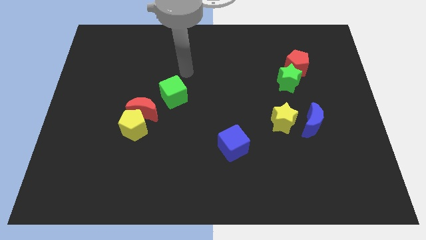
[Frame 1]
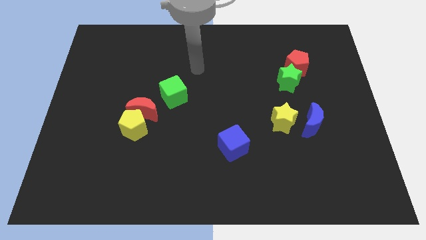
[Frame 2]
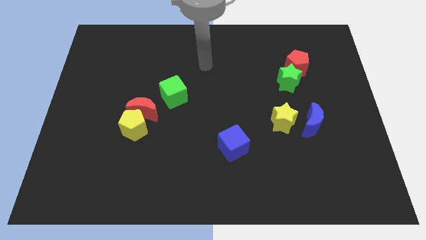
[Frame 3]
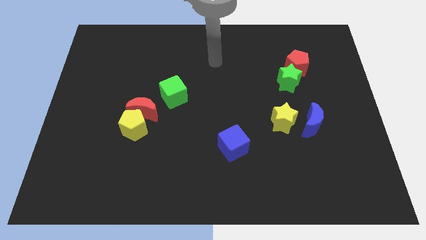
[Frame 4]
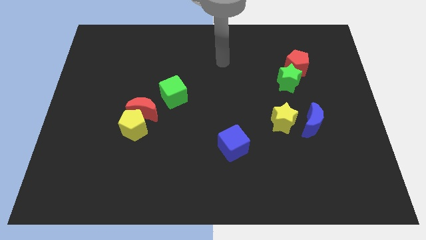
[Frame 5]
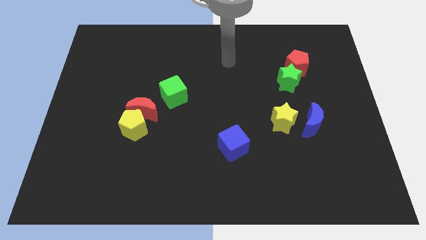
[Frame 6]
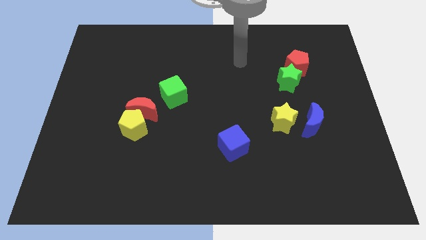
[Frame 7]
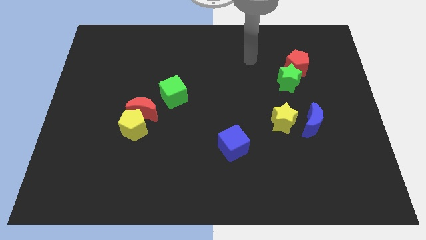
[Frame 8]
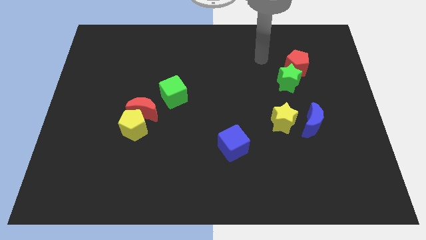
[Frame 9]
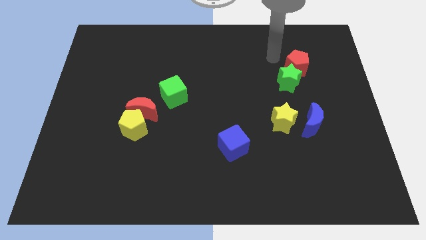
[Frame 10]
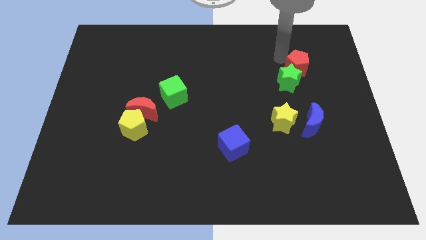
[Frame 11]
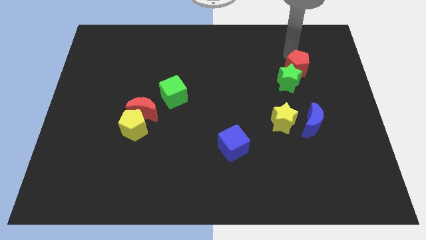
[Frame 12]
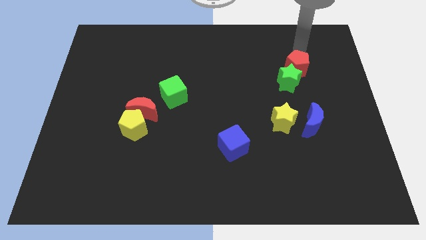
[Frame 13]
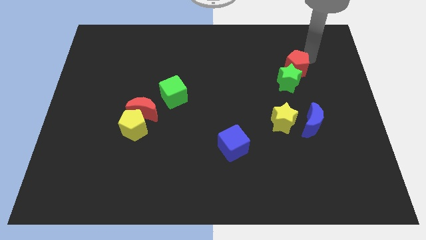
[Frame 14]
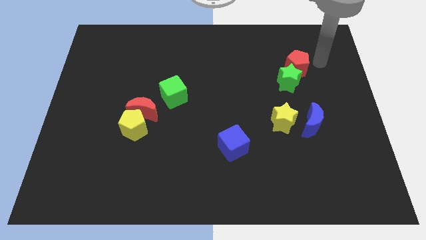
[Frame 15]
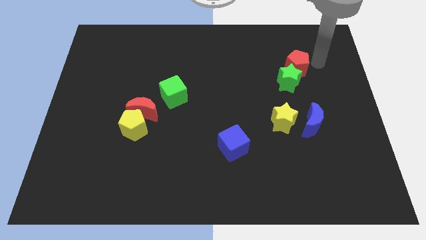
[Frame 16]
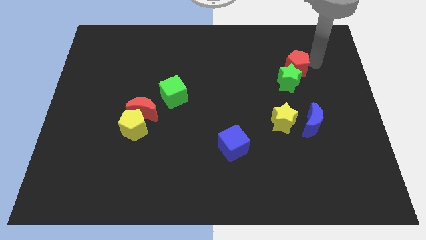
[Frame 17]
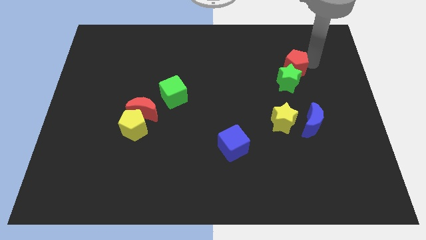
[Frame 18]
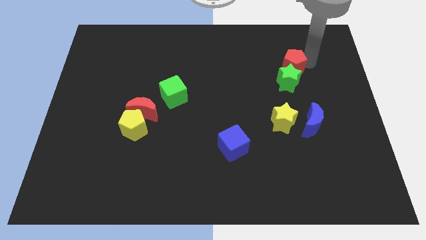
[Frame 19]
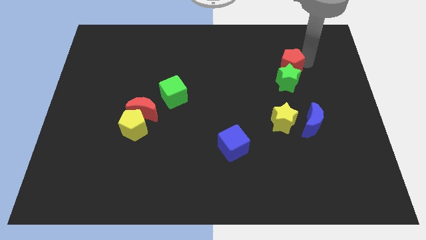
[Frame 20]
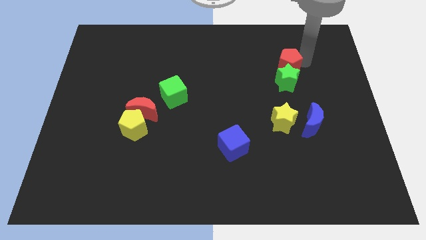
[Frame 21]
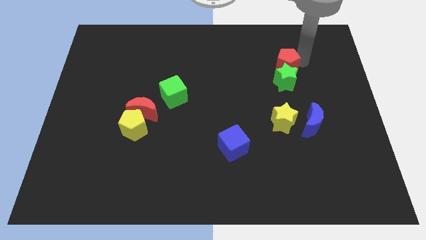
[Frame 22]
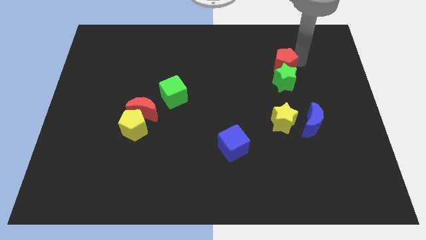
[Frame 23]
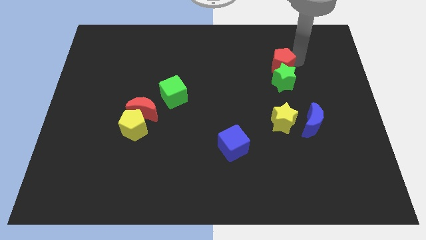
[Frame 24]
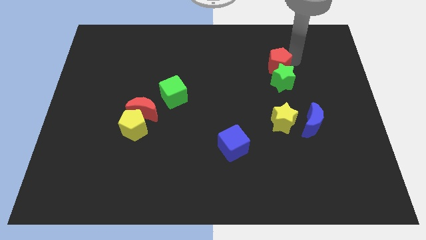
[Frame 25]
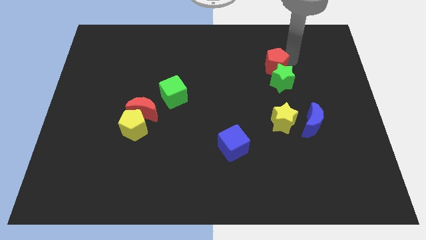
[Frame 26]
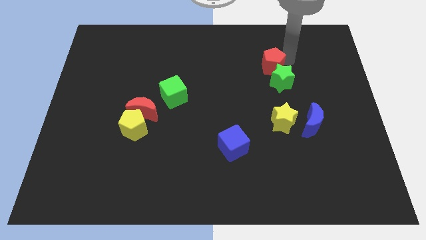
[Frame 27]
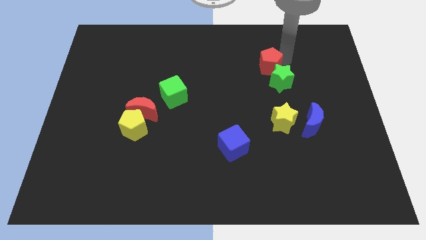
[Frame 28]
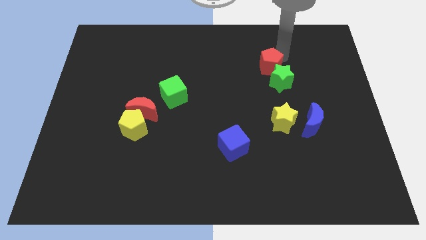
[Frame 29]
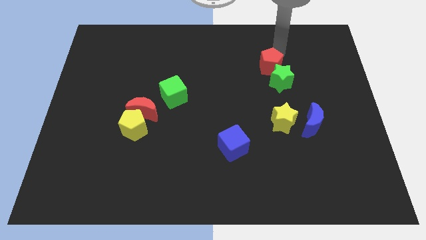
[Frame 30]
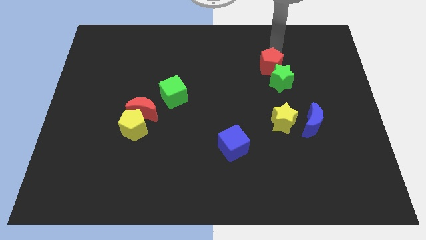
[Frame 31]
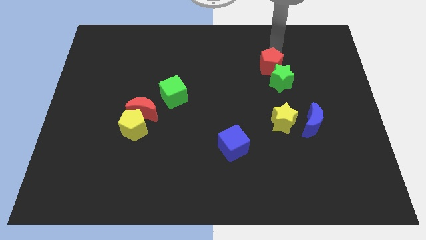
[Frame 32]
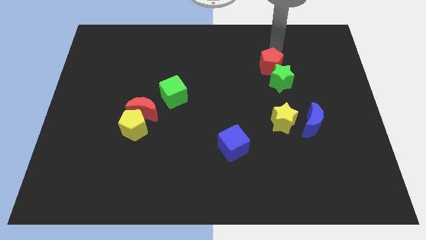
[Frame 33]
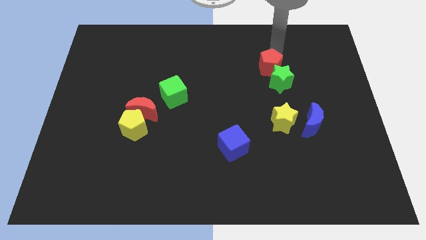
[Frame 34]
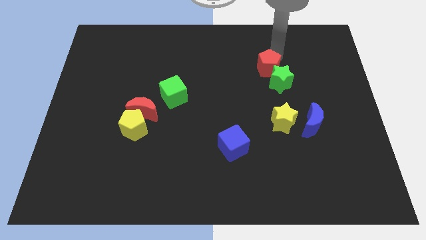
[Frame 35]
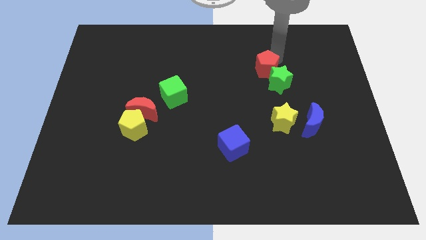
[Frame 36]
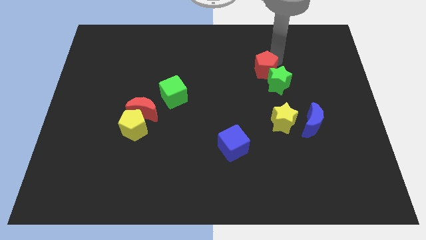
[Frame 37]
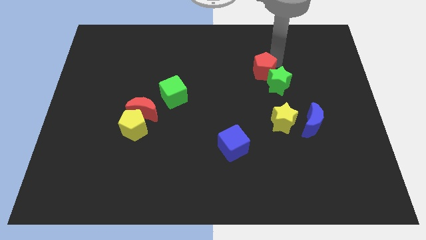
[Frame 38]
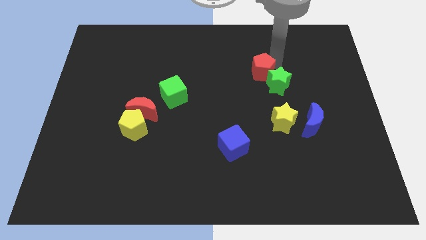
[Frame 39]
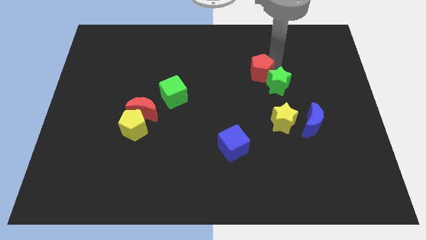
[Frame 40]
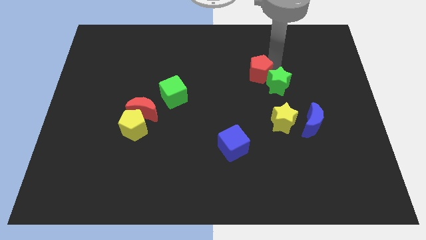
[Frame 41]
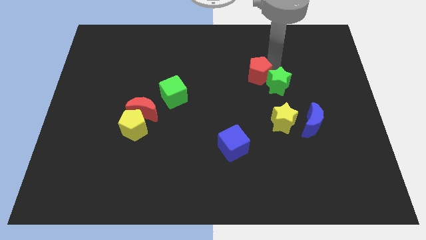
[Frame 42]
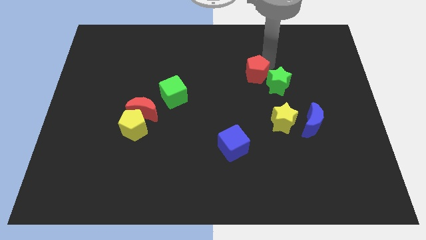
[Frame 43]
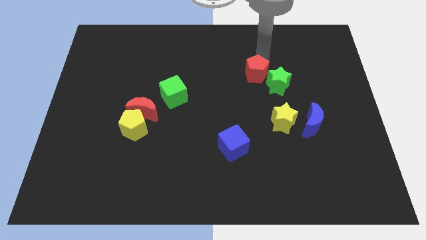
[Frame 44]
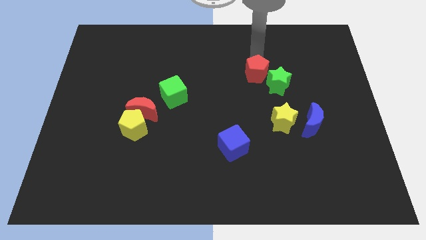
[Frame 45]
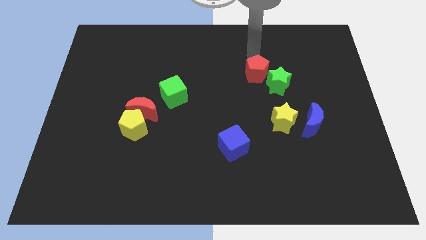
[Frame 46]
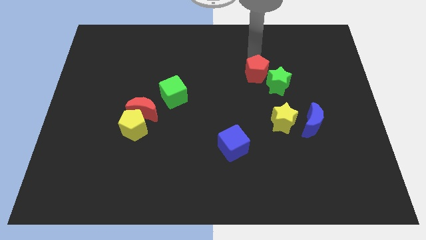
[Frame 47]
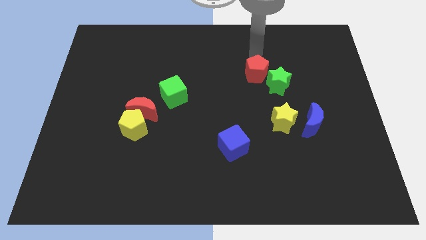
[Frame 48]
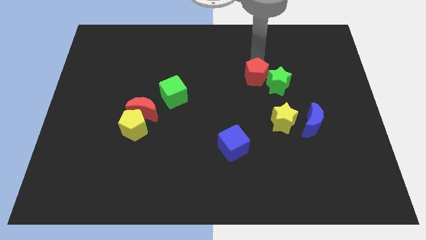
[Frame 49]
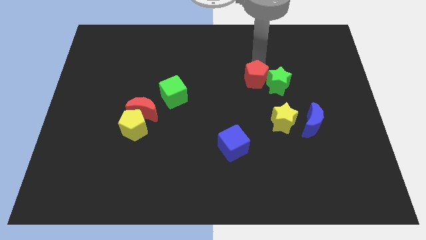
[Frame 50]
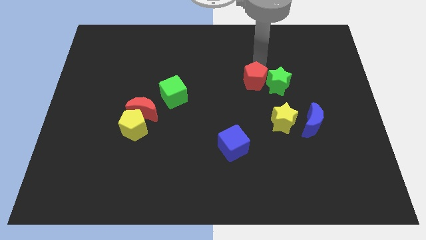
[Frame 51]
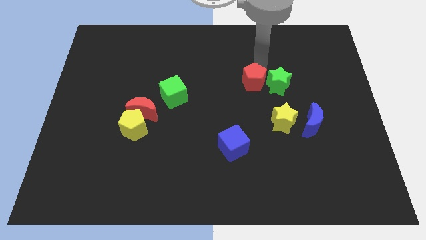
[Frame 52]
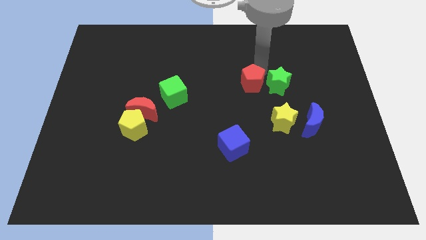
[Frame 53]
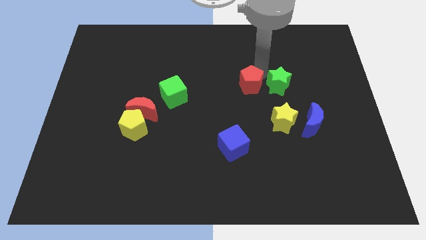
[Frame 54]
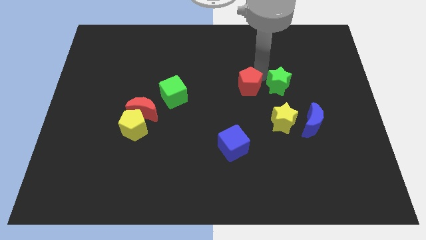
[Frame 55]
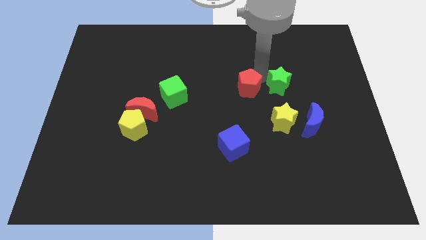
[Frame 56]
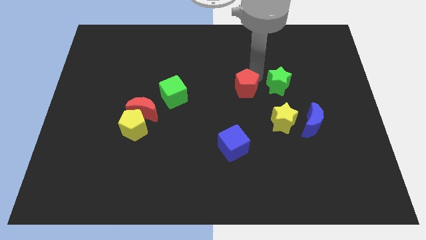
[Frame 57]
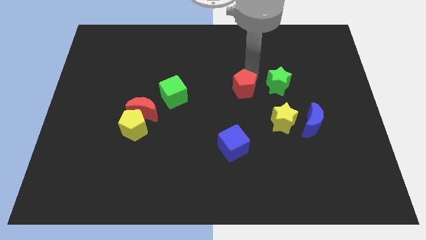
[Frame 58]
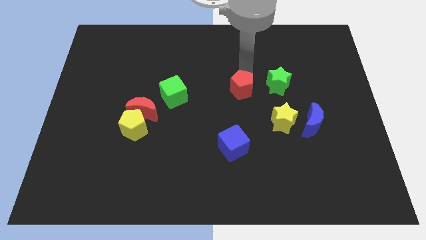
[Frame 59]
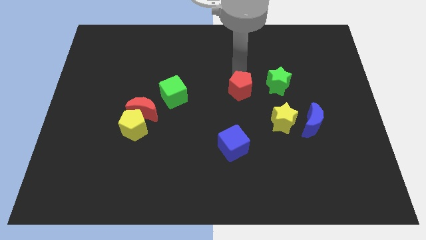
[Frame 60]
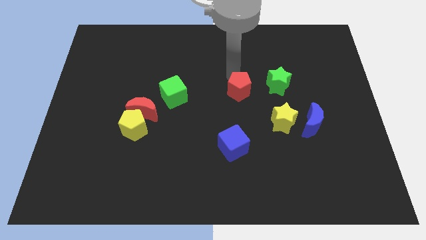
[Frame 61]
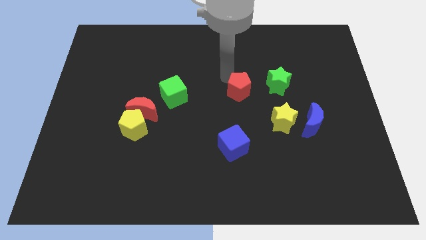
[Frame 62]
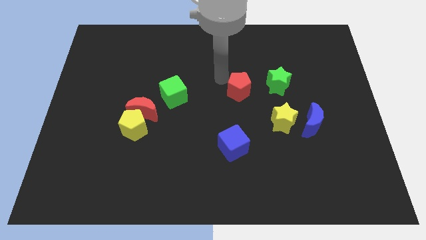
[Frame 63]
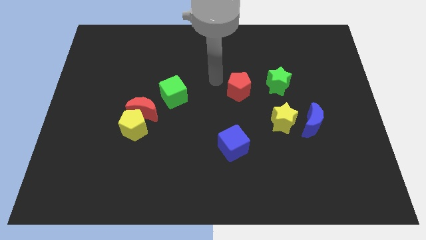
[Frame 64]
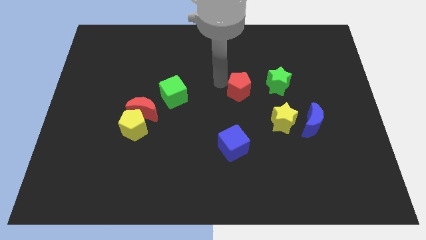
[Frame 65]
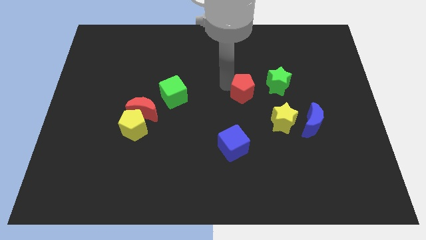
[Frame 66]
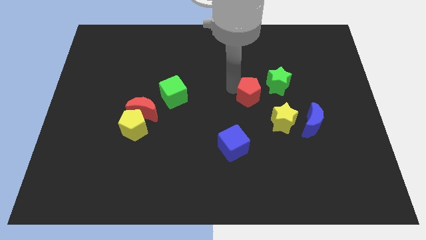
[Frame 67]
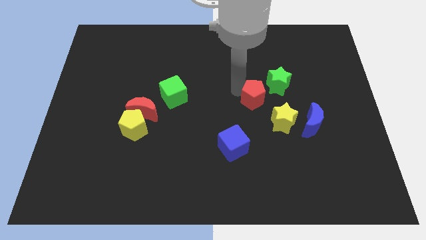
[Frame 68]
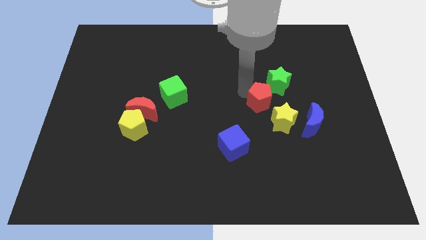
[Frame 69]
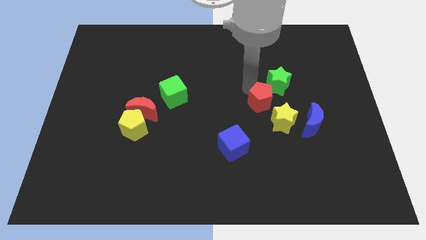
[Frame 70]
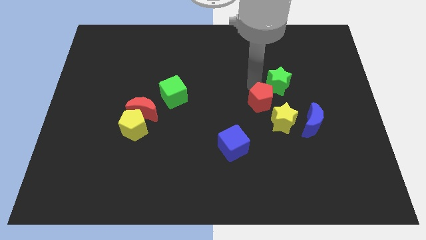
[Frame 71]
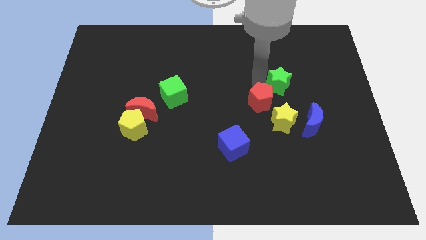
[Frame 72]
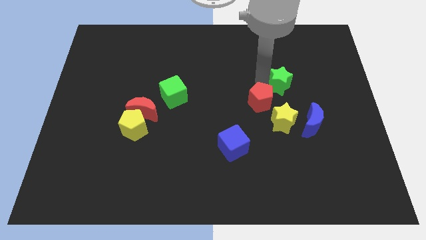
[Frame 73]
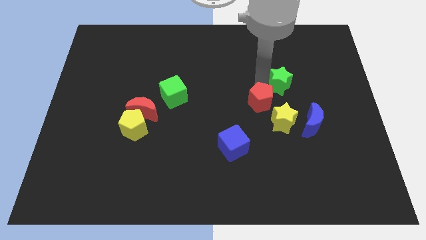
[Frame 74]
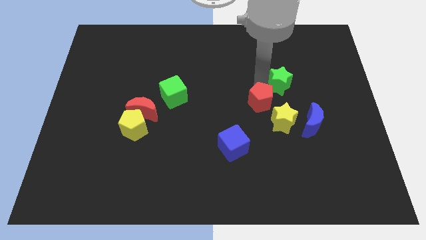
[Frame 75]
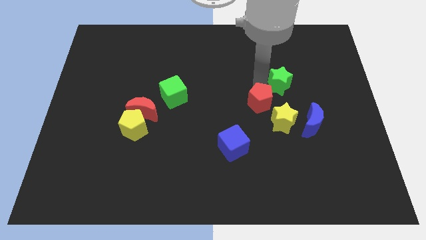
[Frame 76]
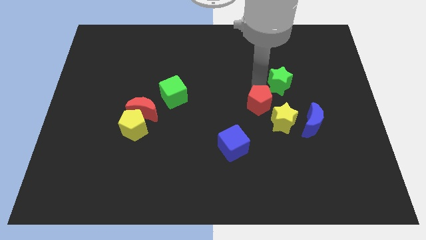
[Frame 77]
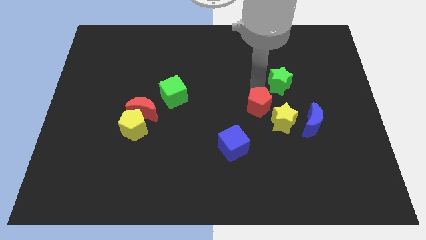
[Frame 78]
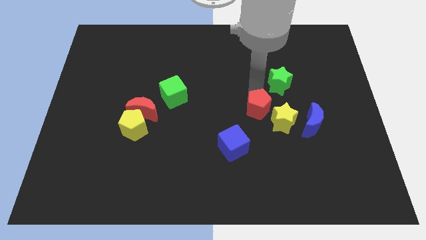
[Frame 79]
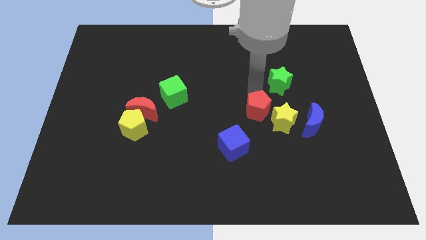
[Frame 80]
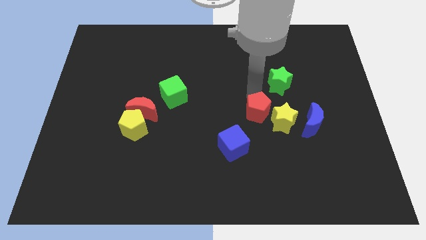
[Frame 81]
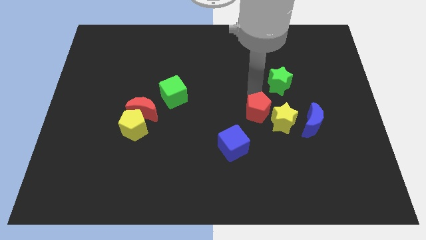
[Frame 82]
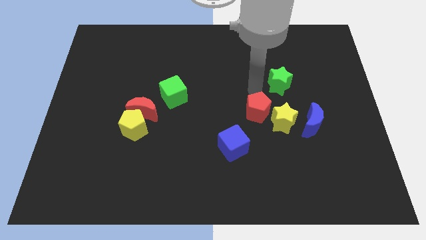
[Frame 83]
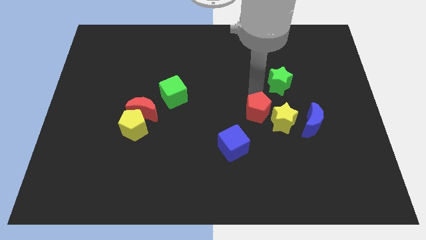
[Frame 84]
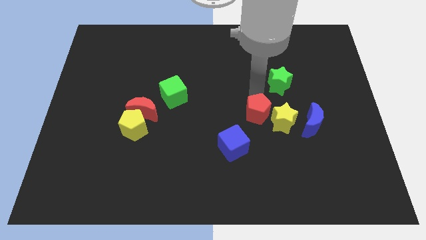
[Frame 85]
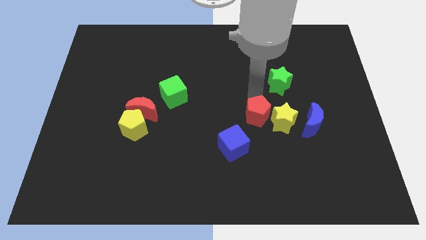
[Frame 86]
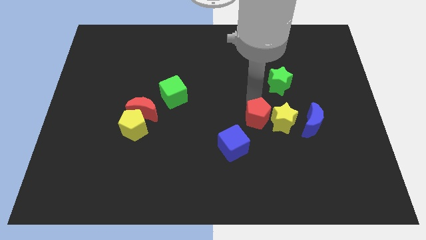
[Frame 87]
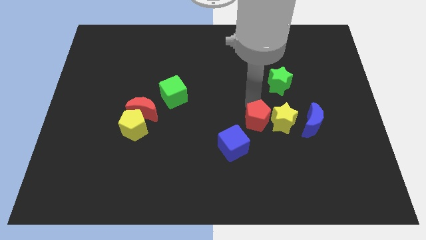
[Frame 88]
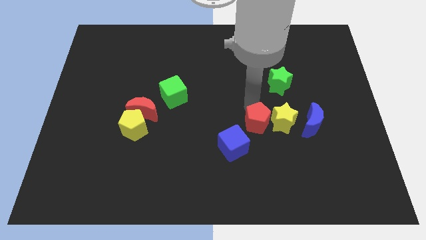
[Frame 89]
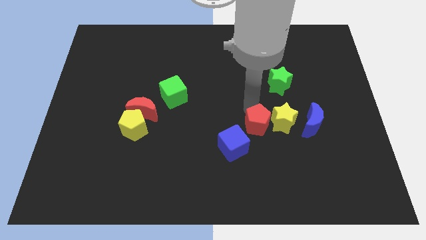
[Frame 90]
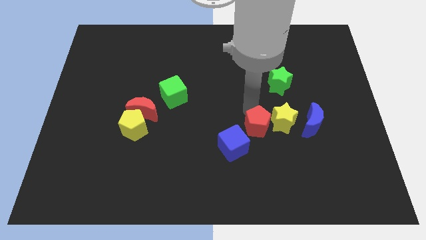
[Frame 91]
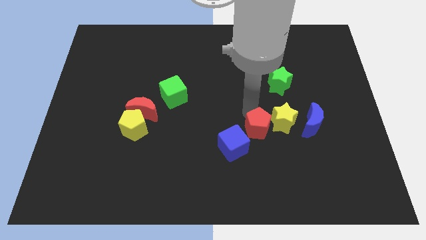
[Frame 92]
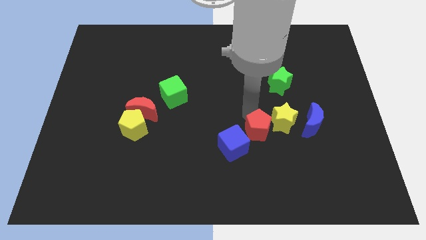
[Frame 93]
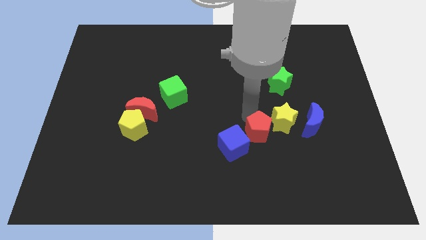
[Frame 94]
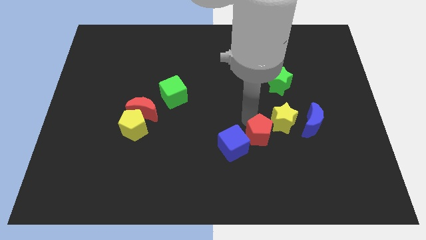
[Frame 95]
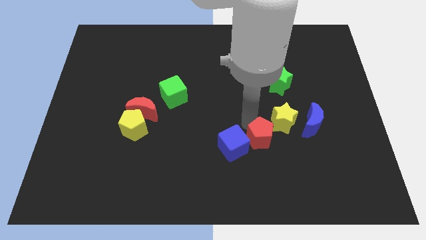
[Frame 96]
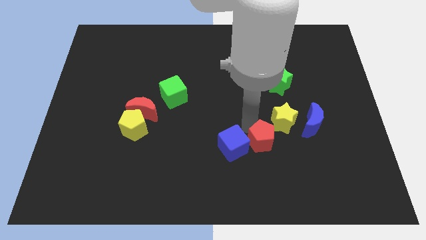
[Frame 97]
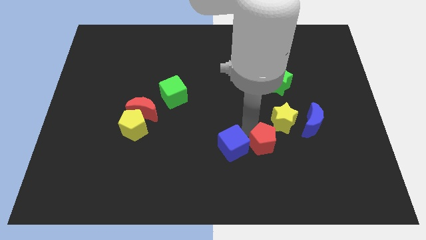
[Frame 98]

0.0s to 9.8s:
move the red pentagon to the bottom of the yellow star
